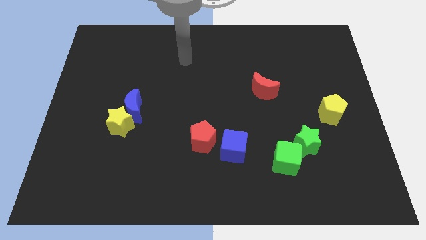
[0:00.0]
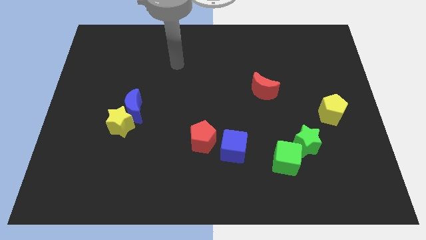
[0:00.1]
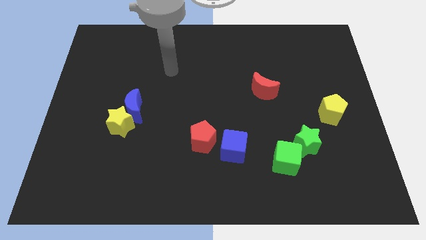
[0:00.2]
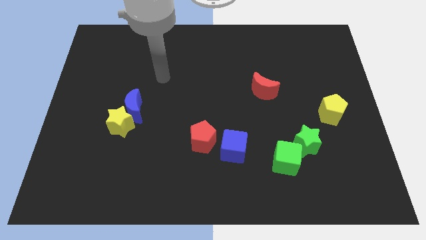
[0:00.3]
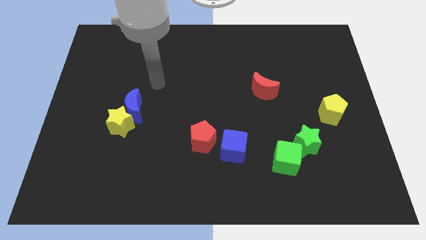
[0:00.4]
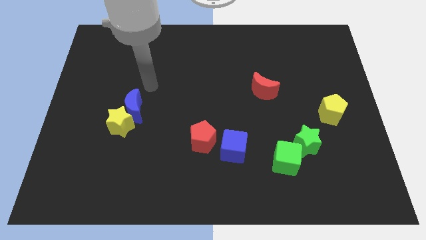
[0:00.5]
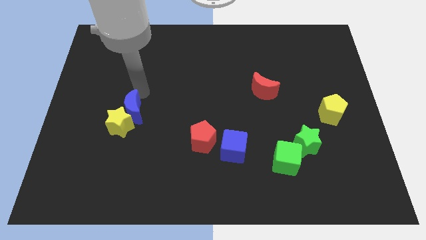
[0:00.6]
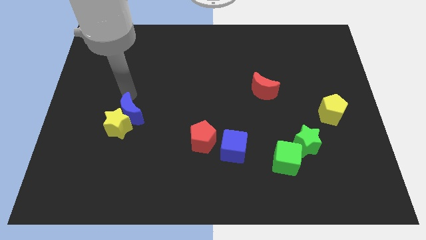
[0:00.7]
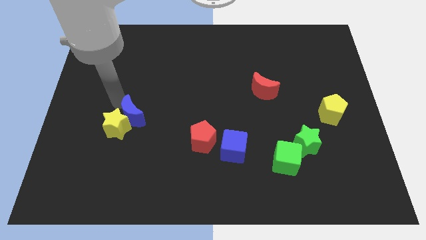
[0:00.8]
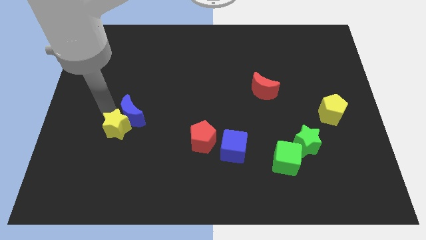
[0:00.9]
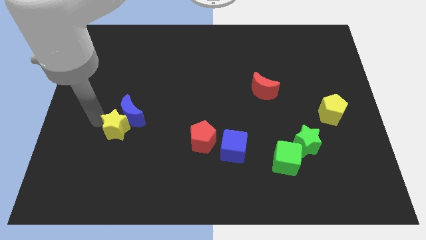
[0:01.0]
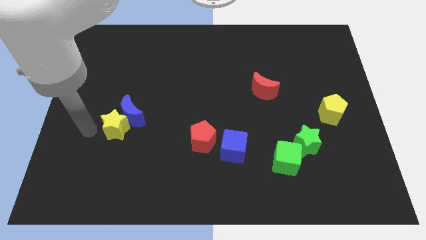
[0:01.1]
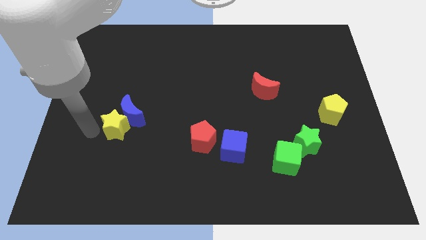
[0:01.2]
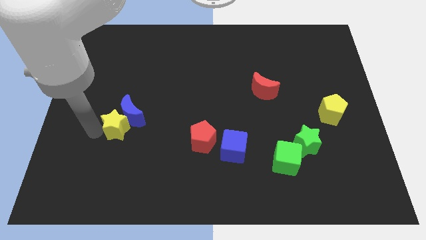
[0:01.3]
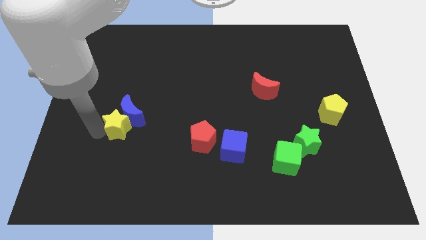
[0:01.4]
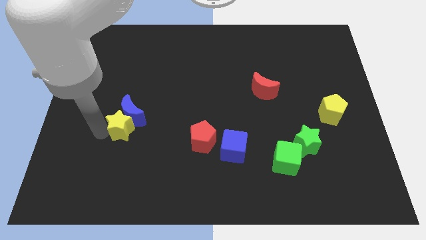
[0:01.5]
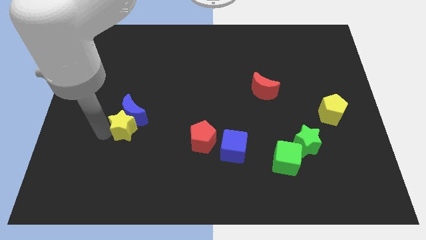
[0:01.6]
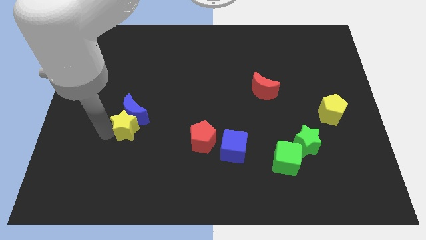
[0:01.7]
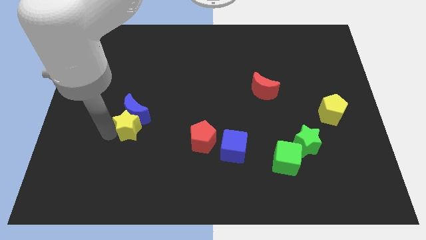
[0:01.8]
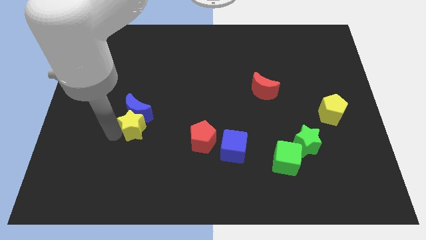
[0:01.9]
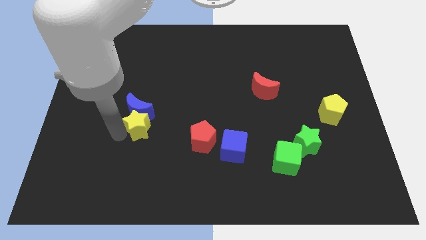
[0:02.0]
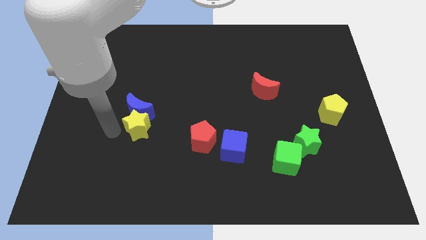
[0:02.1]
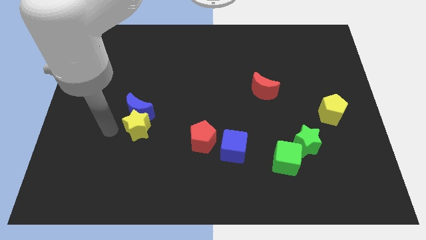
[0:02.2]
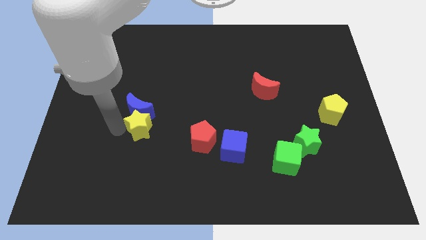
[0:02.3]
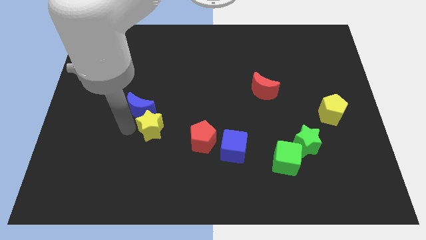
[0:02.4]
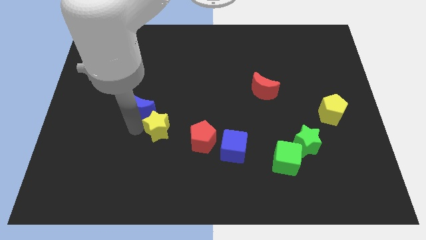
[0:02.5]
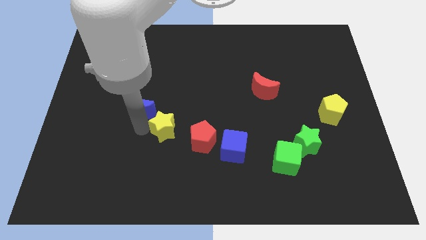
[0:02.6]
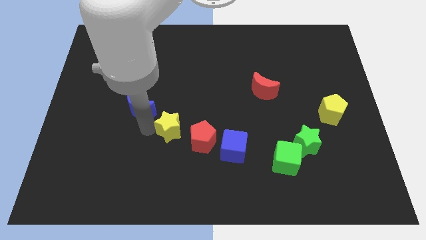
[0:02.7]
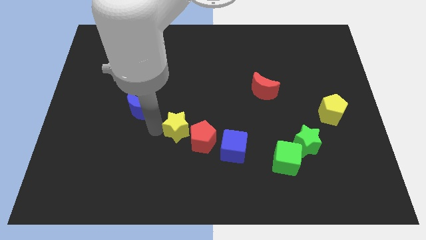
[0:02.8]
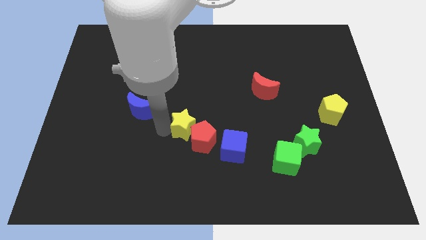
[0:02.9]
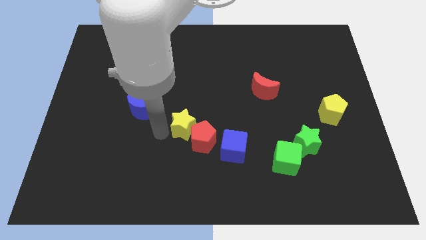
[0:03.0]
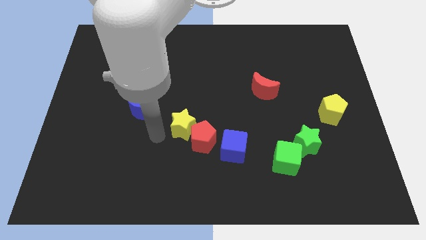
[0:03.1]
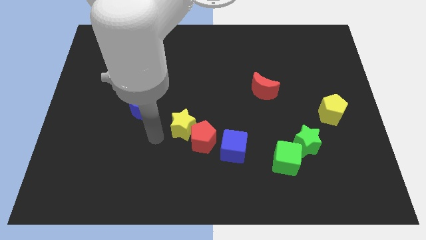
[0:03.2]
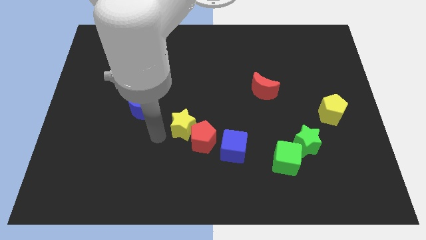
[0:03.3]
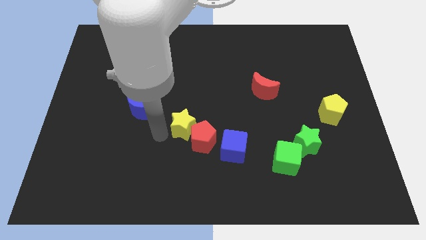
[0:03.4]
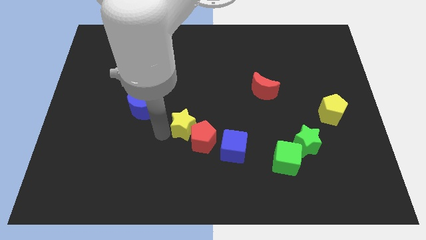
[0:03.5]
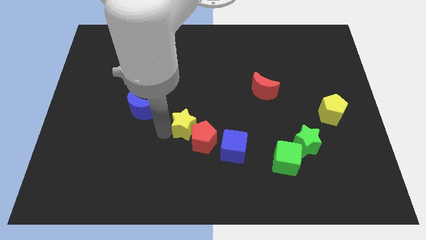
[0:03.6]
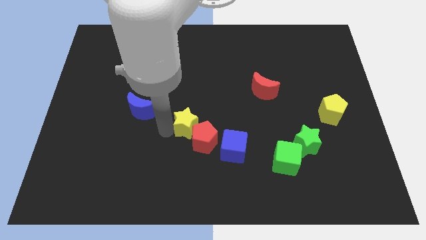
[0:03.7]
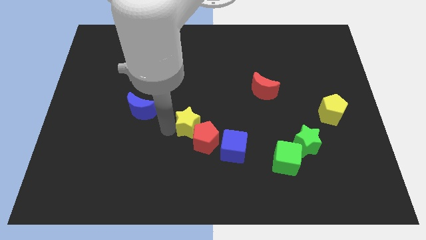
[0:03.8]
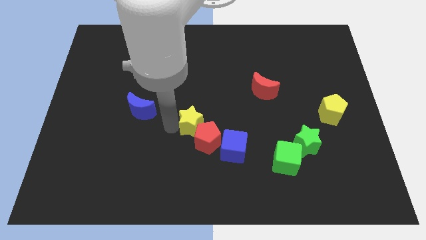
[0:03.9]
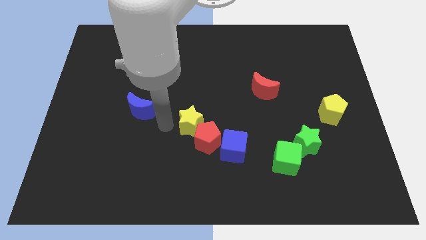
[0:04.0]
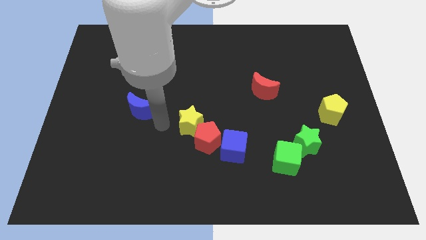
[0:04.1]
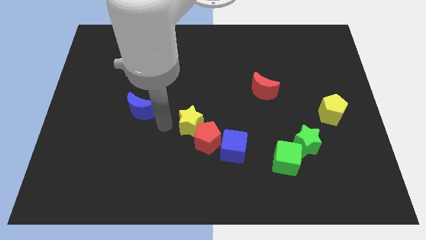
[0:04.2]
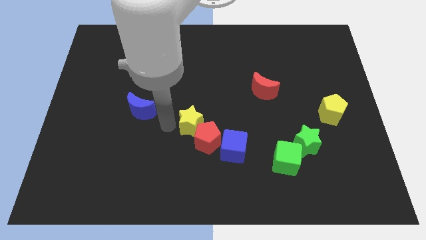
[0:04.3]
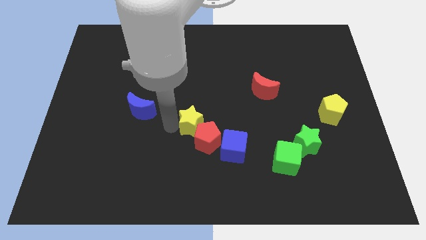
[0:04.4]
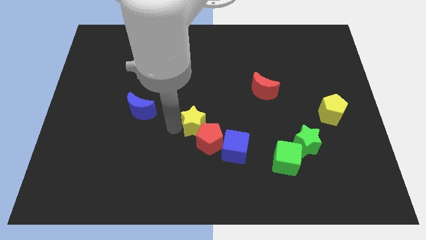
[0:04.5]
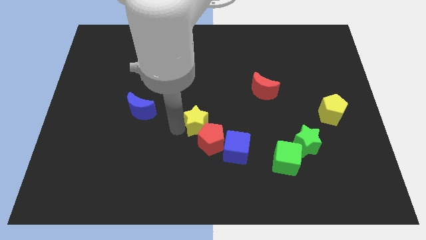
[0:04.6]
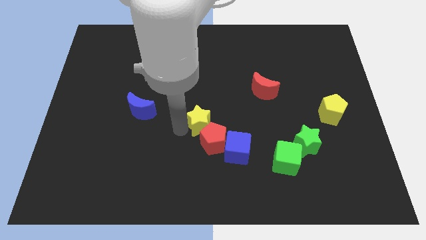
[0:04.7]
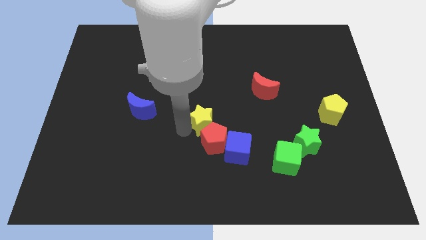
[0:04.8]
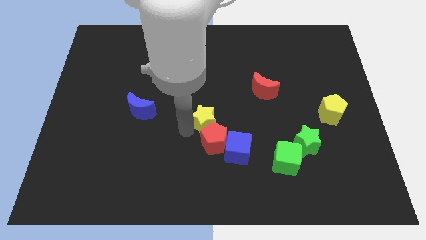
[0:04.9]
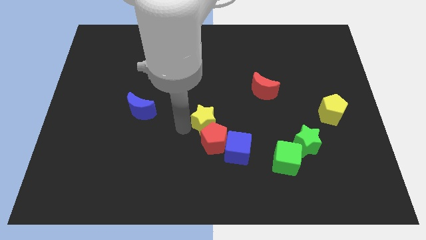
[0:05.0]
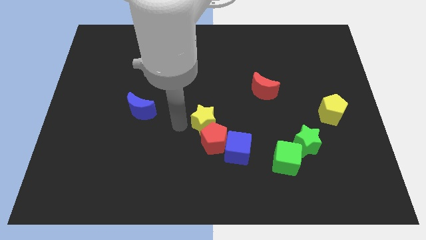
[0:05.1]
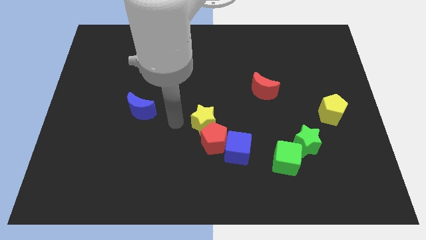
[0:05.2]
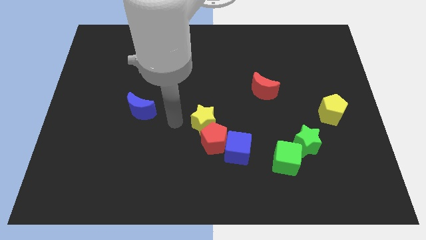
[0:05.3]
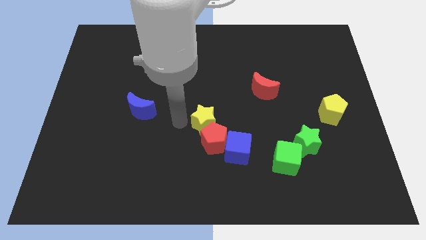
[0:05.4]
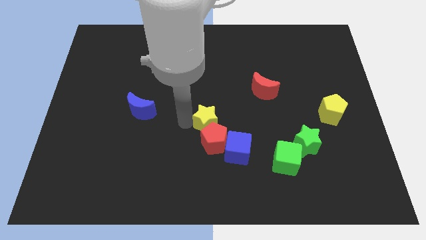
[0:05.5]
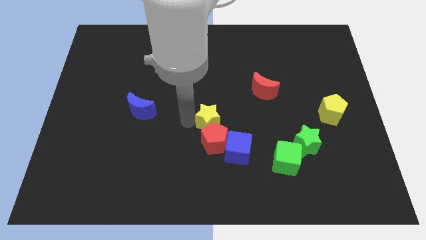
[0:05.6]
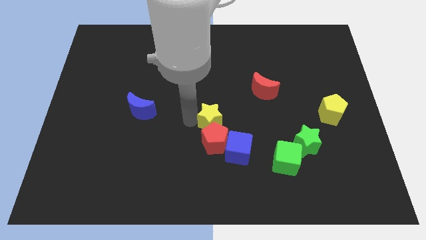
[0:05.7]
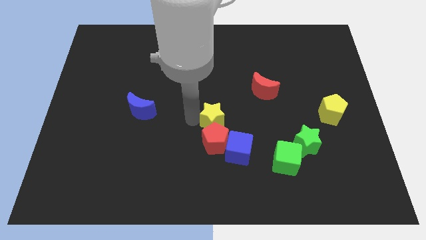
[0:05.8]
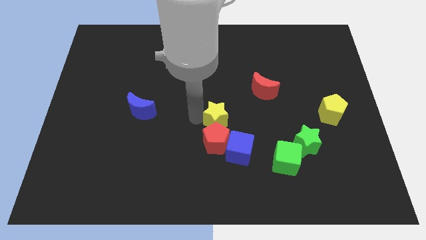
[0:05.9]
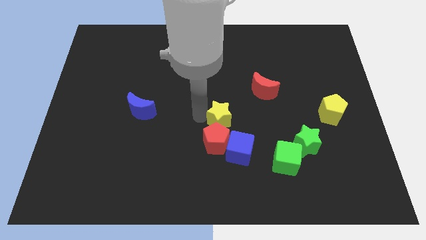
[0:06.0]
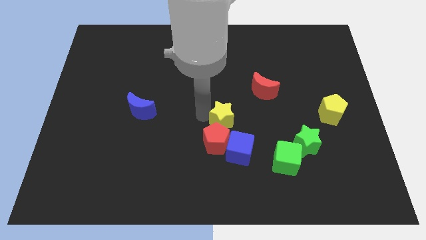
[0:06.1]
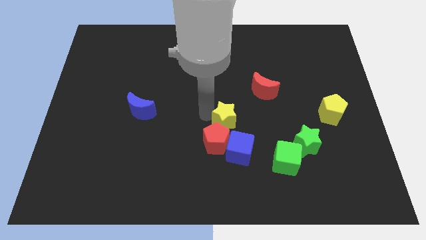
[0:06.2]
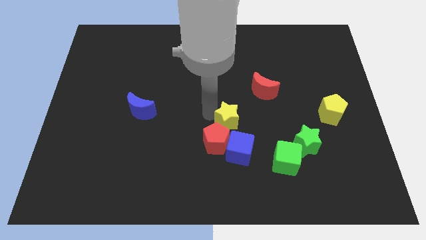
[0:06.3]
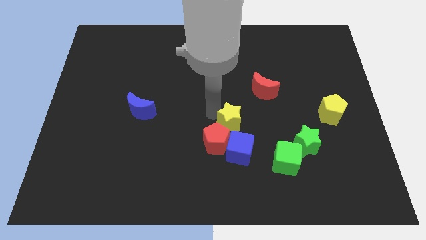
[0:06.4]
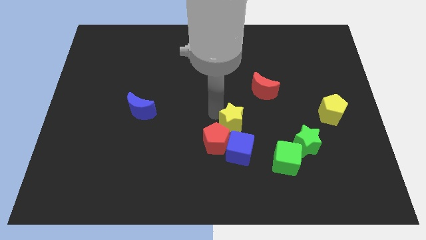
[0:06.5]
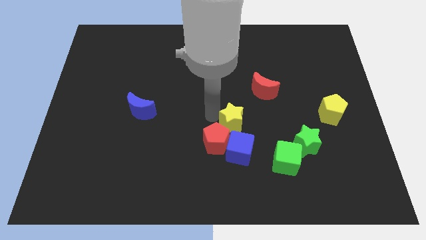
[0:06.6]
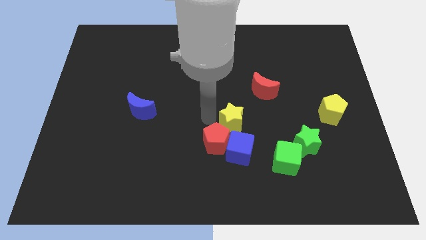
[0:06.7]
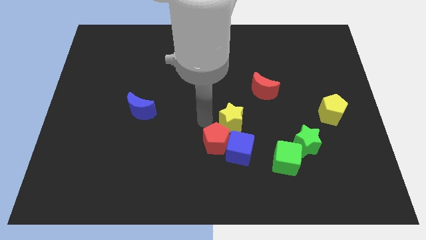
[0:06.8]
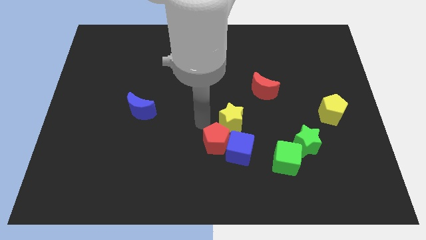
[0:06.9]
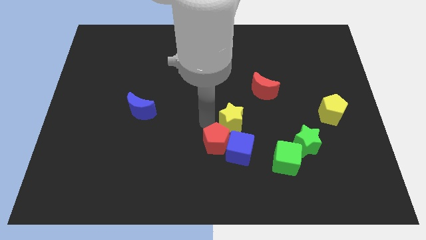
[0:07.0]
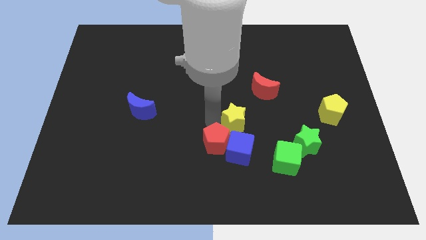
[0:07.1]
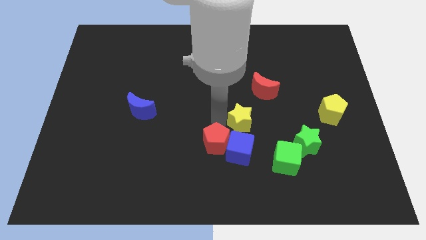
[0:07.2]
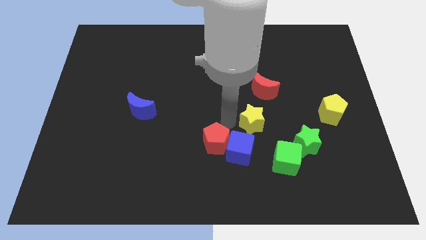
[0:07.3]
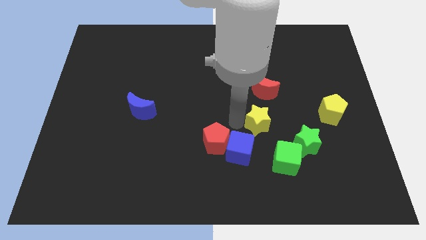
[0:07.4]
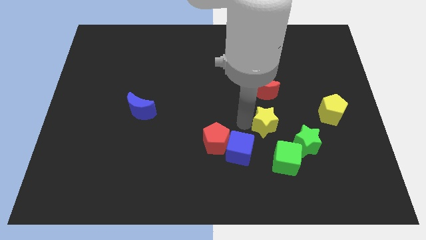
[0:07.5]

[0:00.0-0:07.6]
push the yellow star to the top of the green cube
